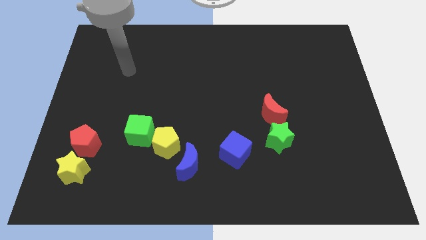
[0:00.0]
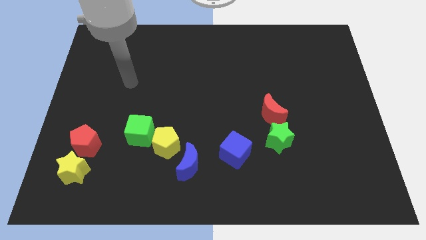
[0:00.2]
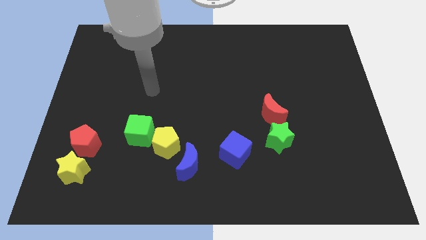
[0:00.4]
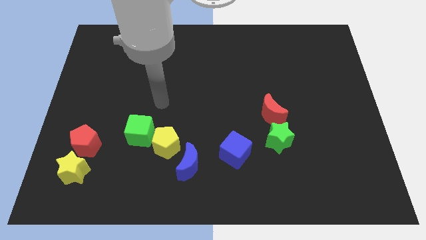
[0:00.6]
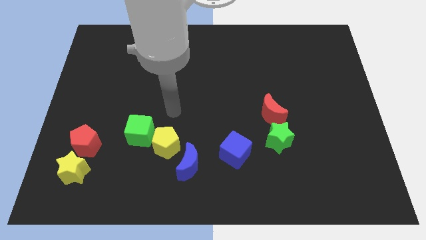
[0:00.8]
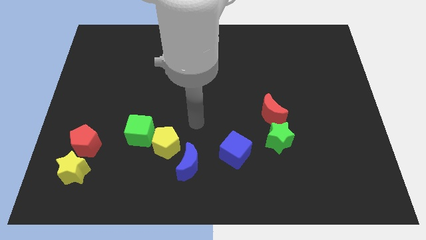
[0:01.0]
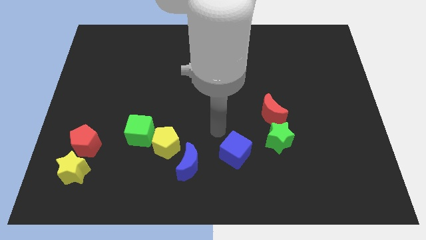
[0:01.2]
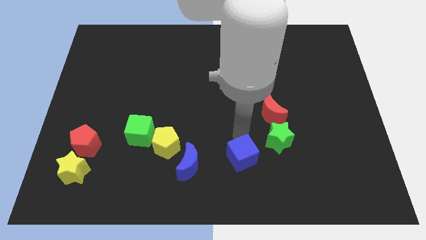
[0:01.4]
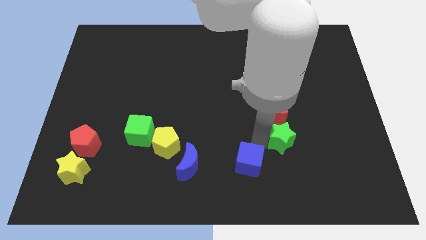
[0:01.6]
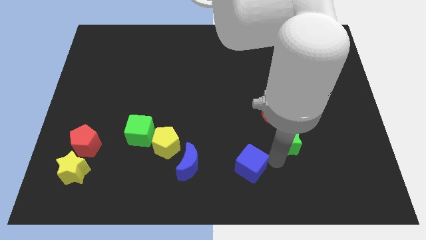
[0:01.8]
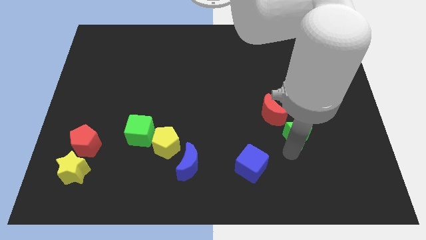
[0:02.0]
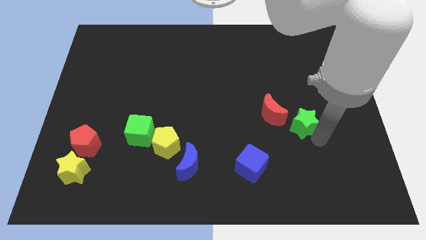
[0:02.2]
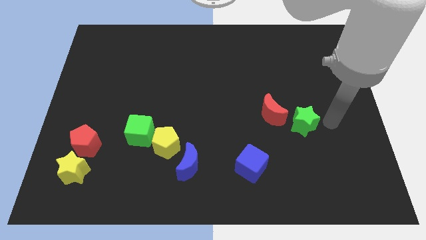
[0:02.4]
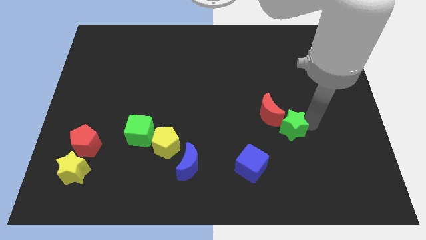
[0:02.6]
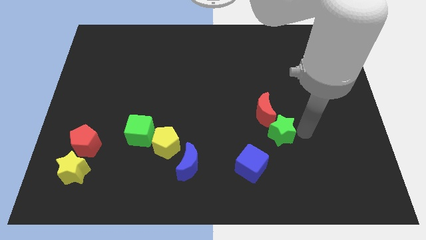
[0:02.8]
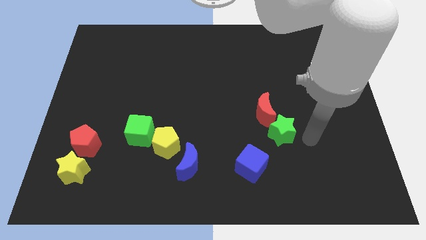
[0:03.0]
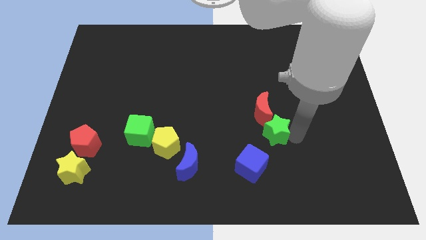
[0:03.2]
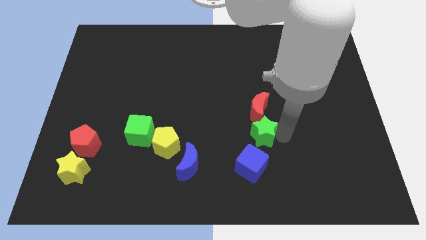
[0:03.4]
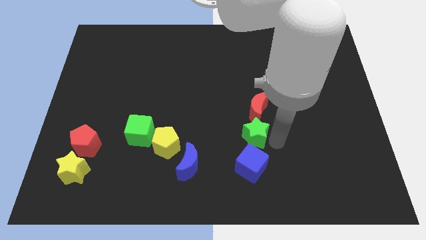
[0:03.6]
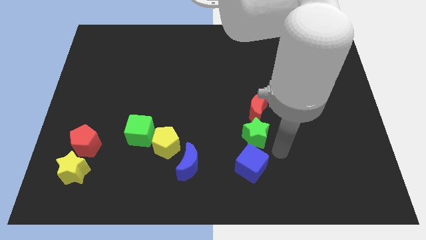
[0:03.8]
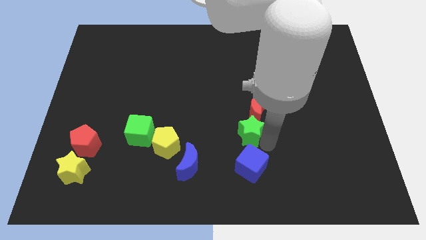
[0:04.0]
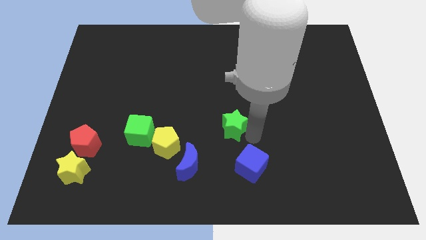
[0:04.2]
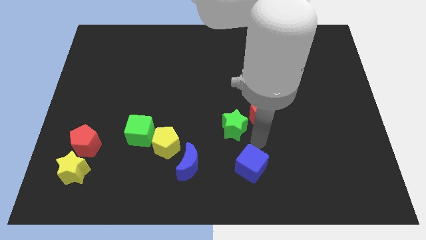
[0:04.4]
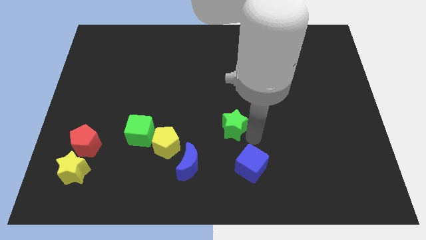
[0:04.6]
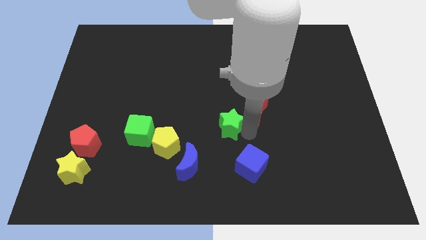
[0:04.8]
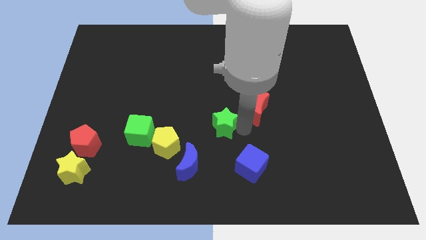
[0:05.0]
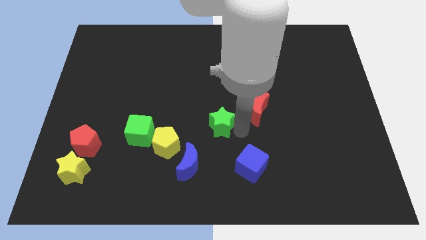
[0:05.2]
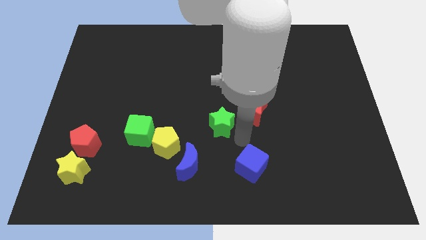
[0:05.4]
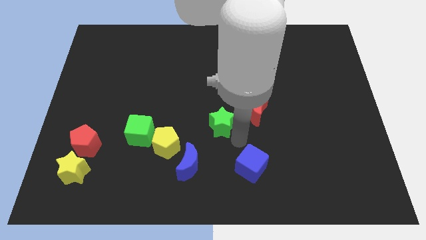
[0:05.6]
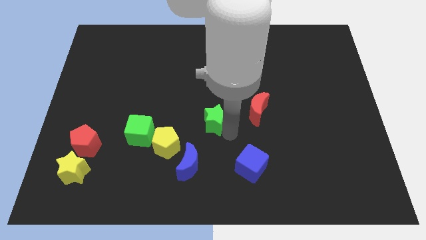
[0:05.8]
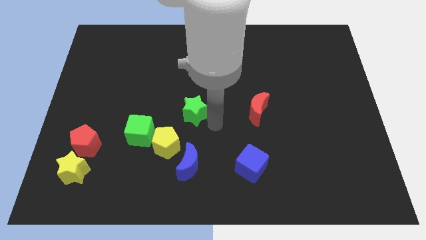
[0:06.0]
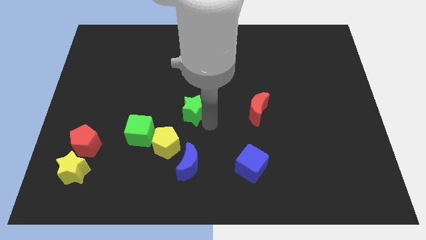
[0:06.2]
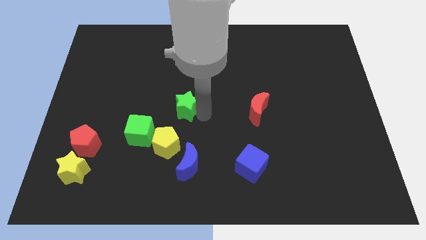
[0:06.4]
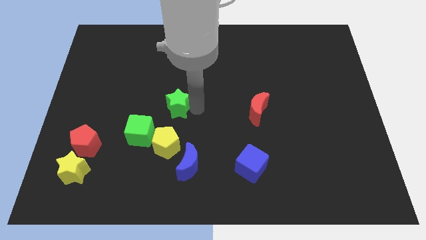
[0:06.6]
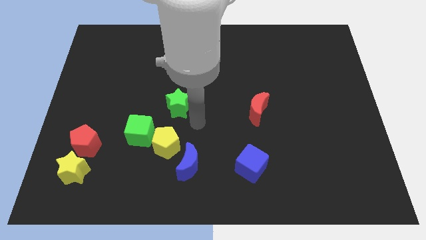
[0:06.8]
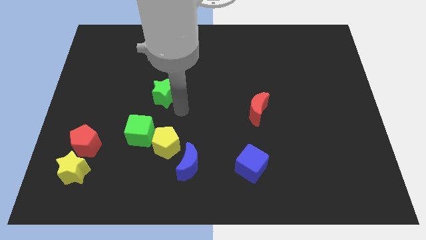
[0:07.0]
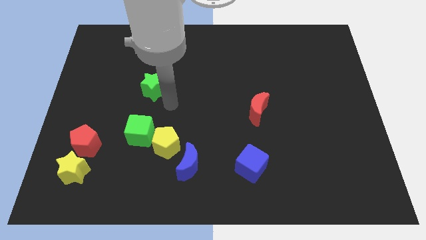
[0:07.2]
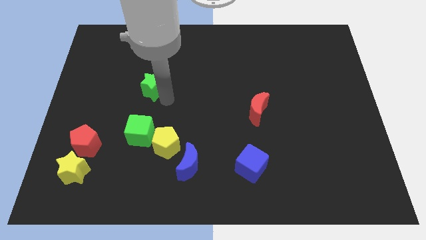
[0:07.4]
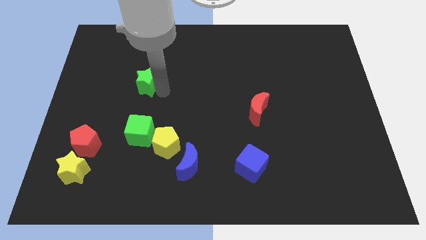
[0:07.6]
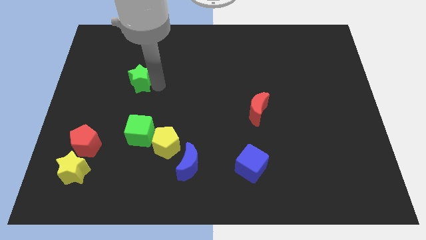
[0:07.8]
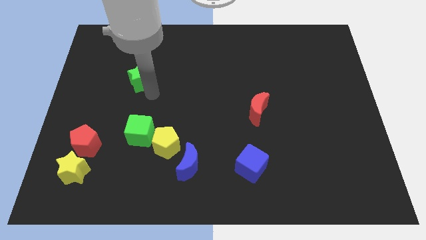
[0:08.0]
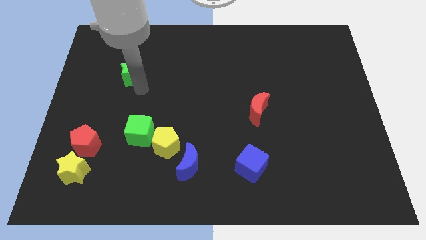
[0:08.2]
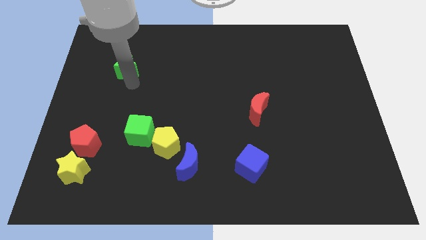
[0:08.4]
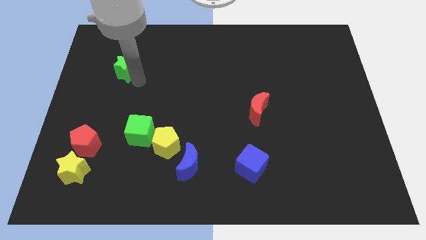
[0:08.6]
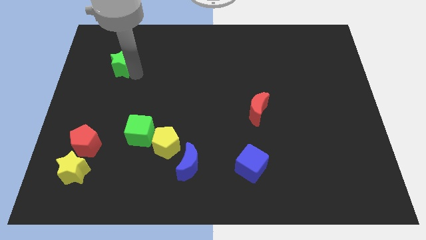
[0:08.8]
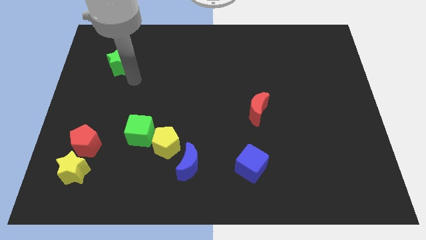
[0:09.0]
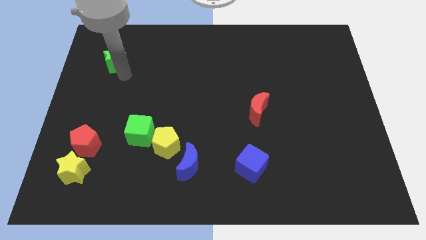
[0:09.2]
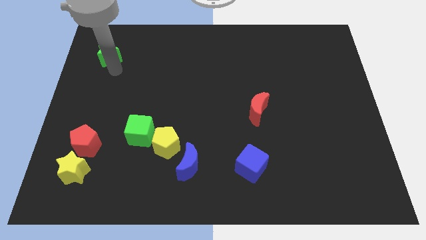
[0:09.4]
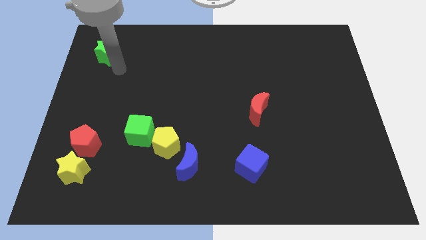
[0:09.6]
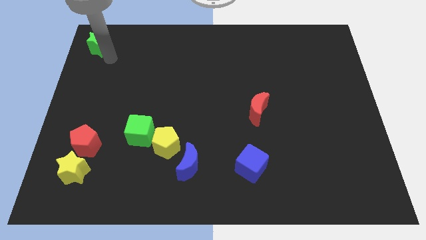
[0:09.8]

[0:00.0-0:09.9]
move the green star to the top left corner
